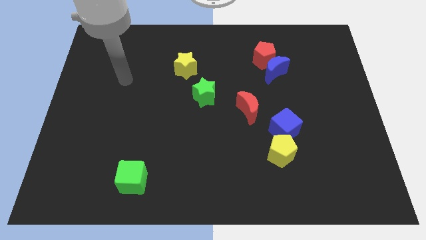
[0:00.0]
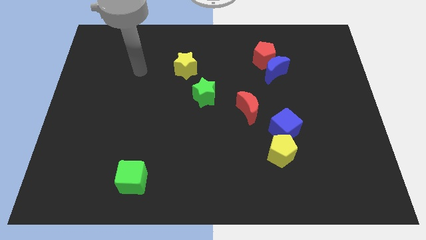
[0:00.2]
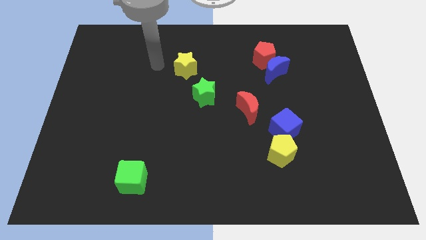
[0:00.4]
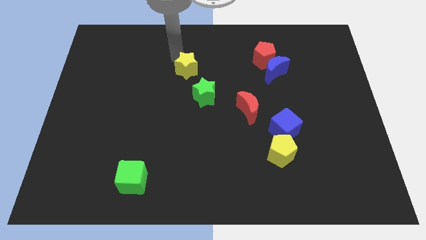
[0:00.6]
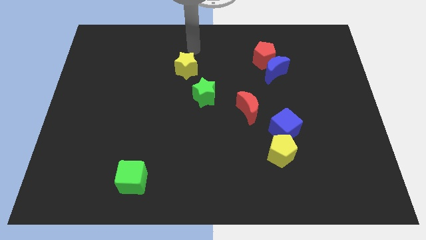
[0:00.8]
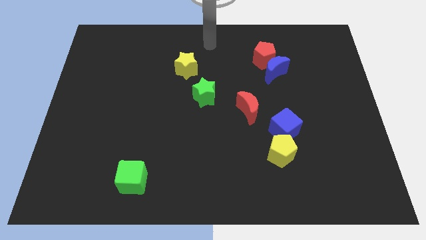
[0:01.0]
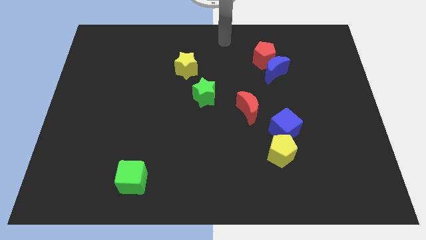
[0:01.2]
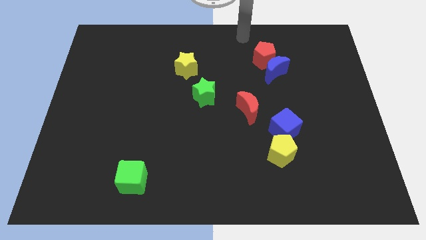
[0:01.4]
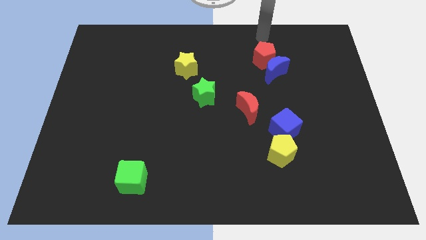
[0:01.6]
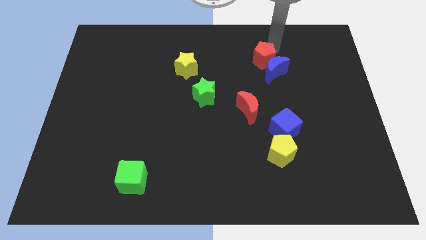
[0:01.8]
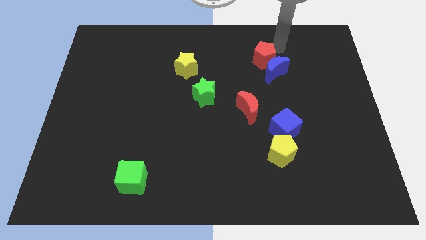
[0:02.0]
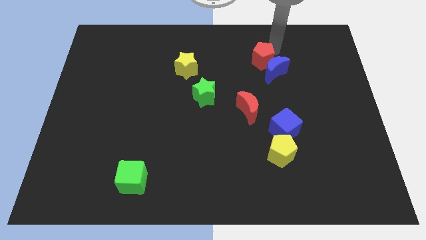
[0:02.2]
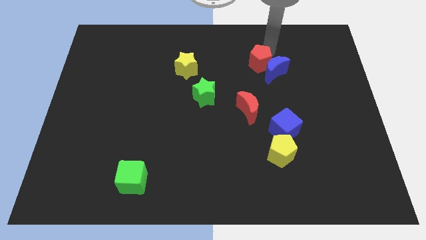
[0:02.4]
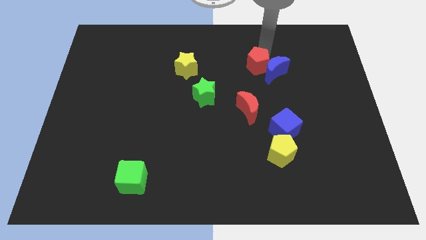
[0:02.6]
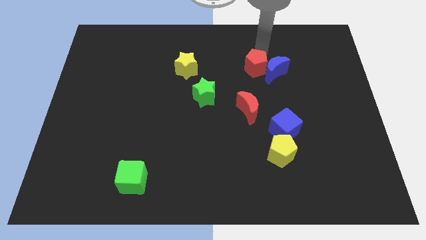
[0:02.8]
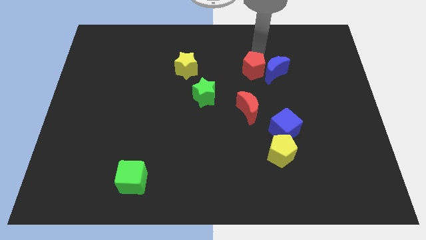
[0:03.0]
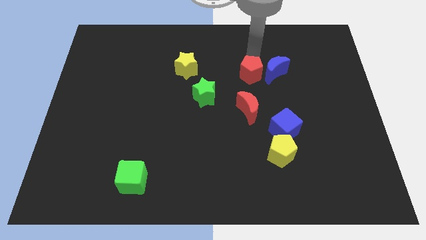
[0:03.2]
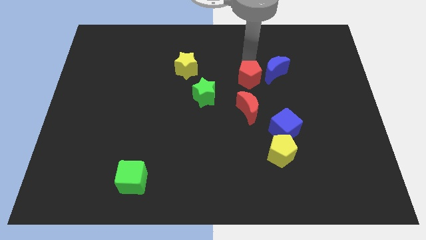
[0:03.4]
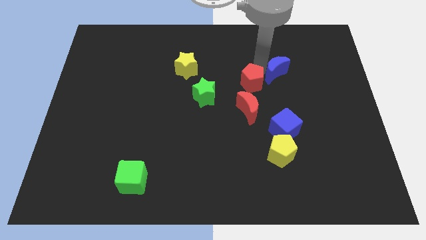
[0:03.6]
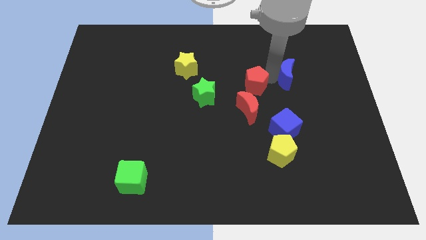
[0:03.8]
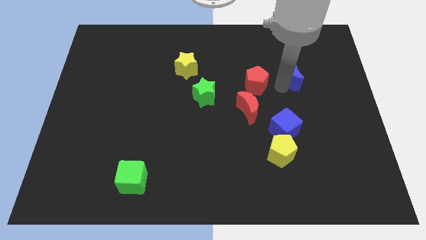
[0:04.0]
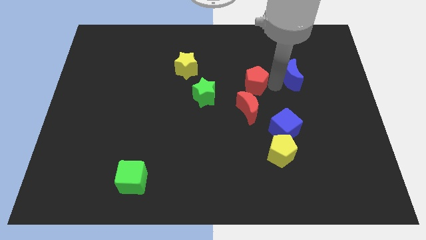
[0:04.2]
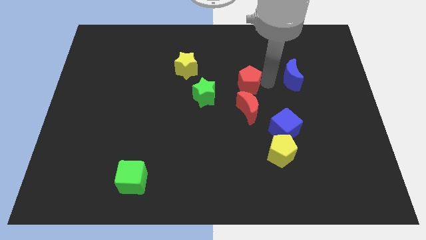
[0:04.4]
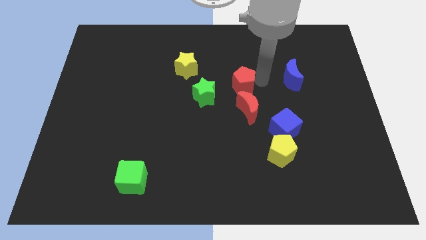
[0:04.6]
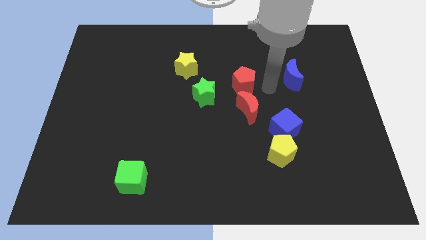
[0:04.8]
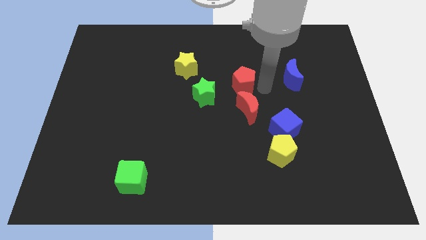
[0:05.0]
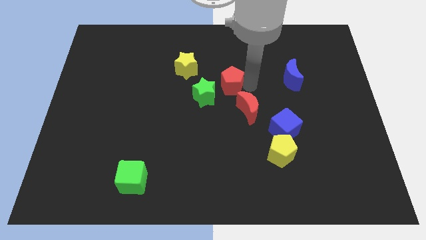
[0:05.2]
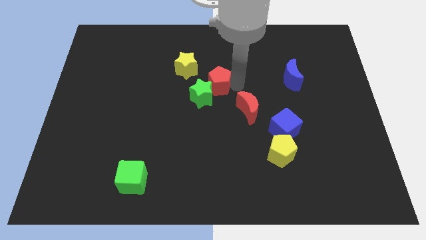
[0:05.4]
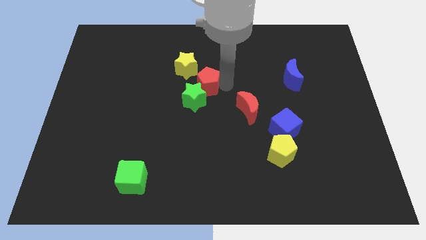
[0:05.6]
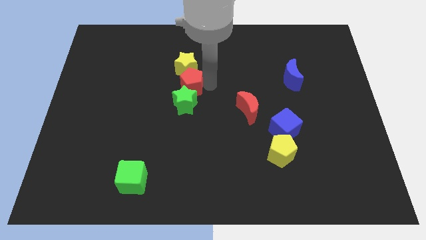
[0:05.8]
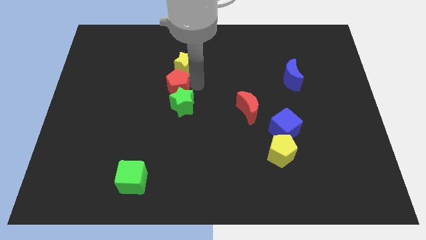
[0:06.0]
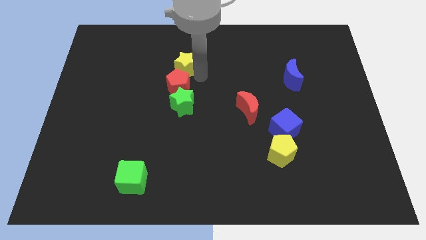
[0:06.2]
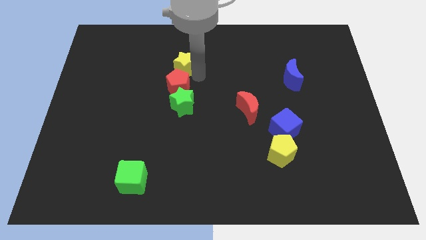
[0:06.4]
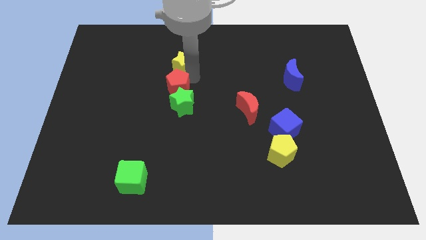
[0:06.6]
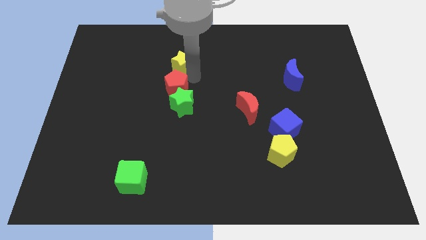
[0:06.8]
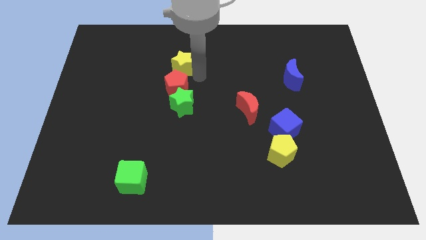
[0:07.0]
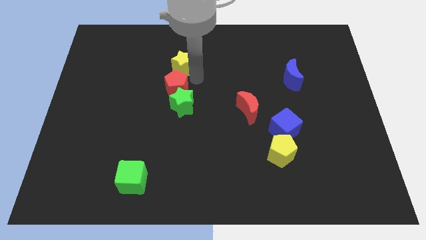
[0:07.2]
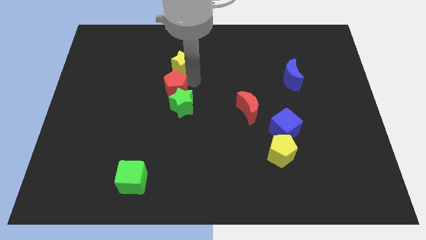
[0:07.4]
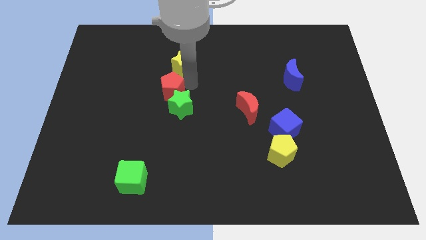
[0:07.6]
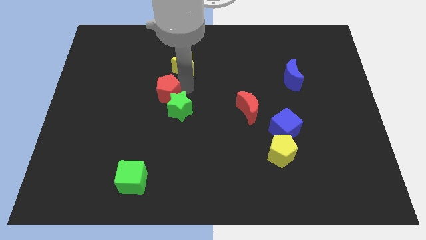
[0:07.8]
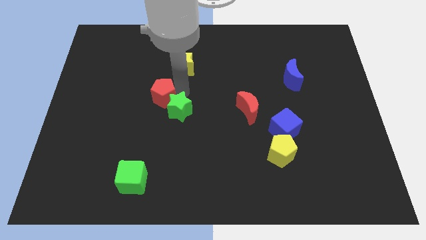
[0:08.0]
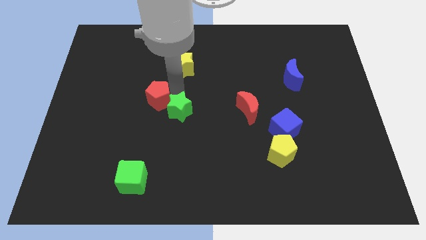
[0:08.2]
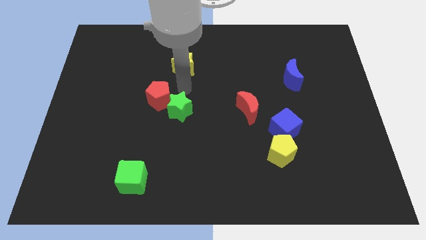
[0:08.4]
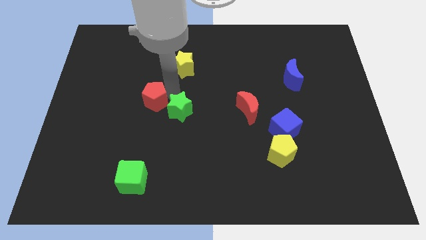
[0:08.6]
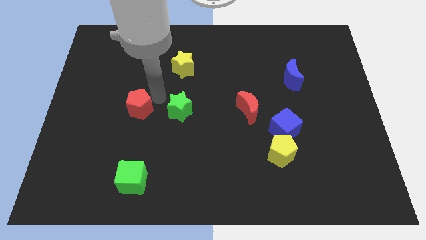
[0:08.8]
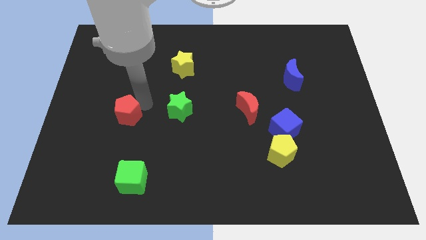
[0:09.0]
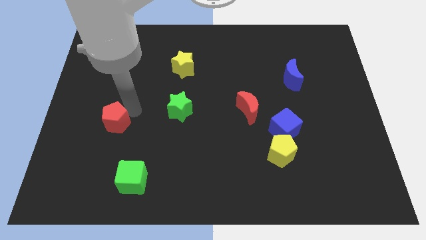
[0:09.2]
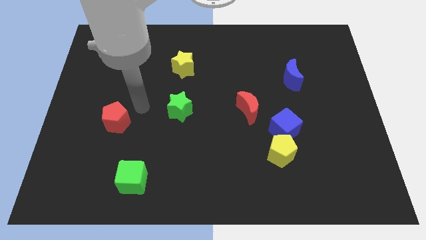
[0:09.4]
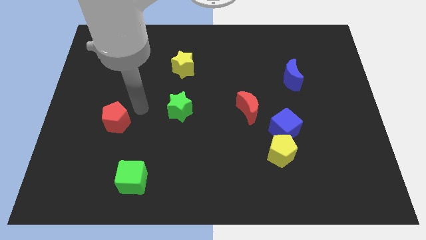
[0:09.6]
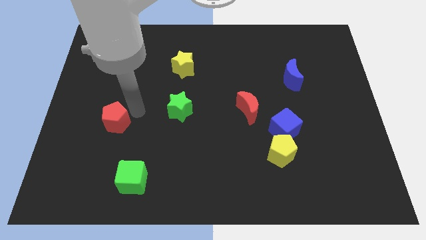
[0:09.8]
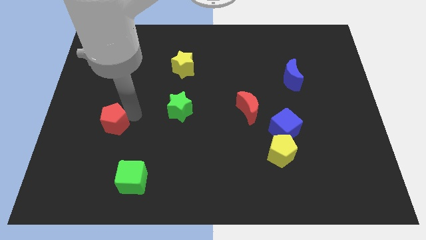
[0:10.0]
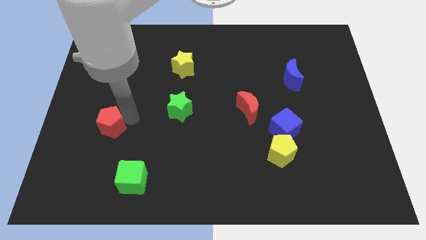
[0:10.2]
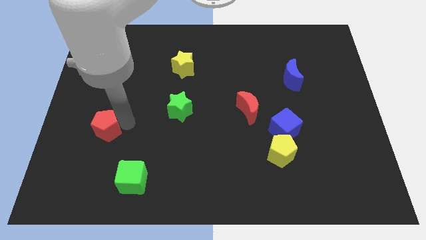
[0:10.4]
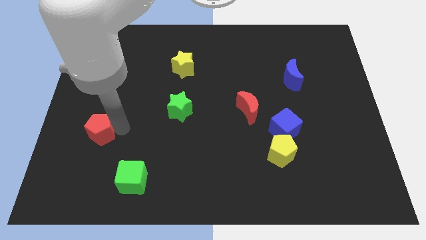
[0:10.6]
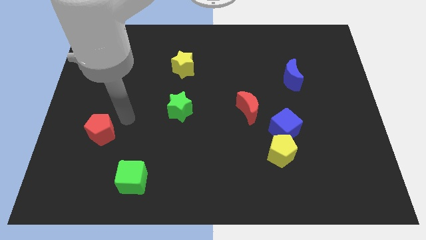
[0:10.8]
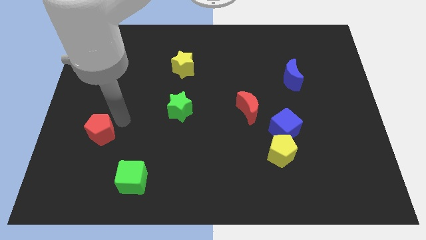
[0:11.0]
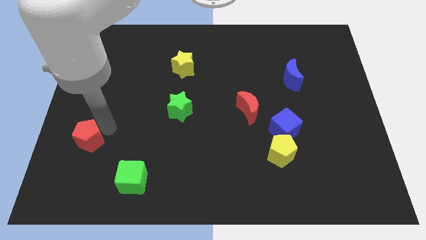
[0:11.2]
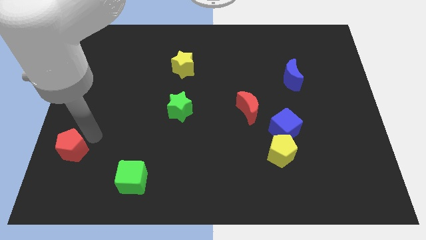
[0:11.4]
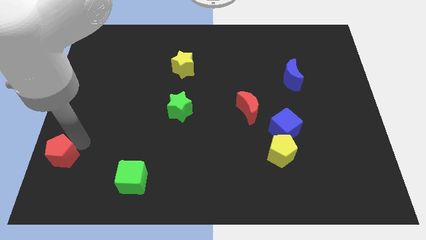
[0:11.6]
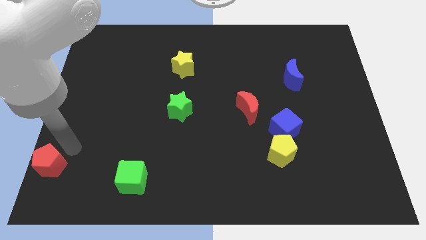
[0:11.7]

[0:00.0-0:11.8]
put the red pentagon to the bottom left
